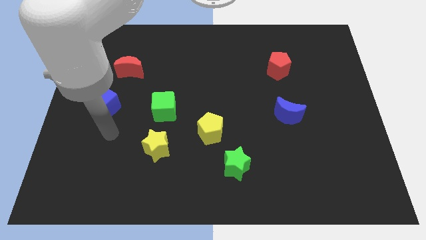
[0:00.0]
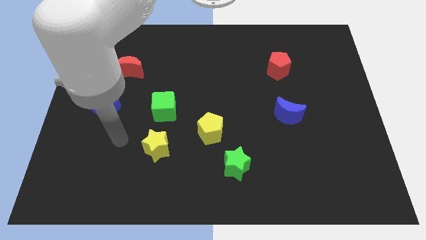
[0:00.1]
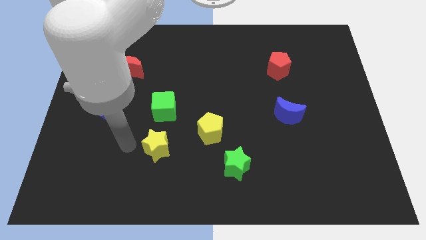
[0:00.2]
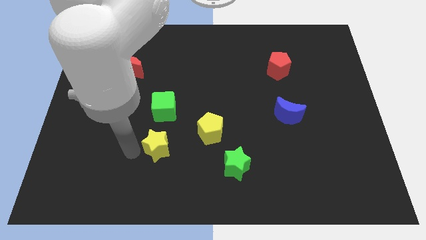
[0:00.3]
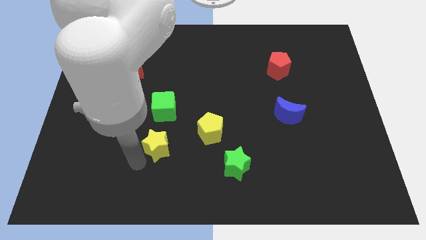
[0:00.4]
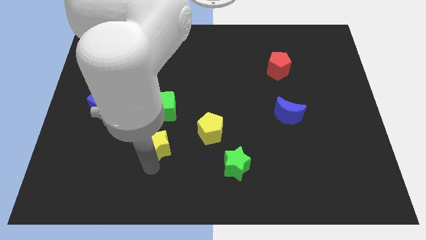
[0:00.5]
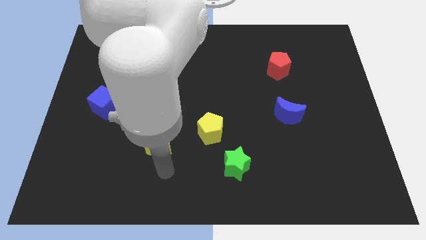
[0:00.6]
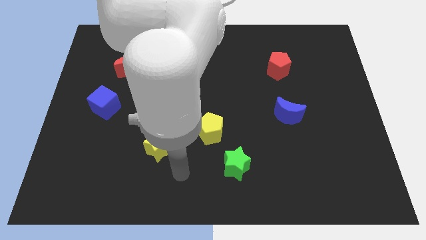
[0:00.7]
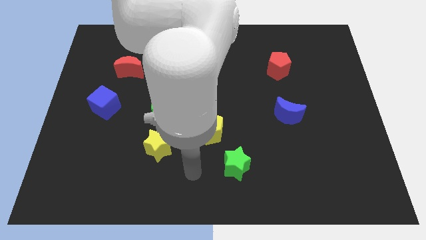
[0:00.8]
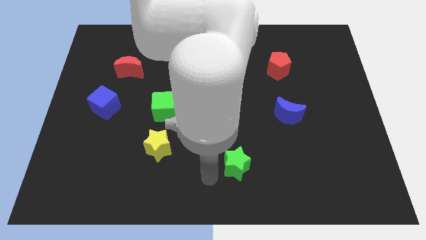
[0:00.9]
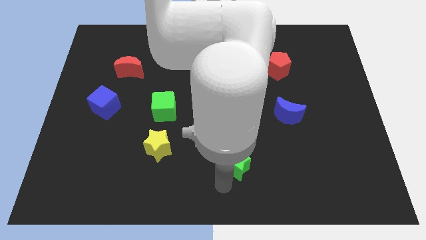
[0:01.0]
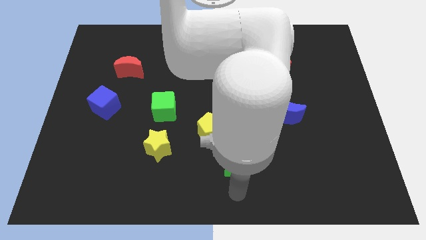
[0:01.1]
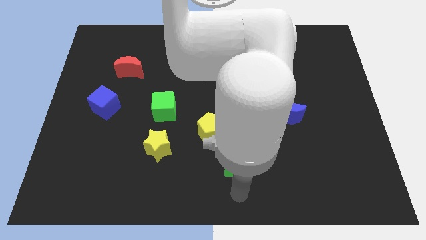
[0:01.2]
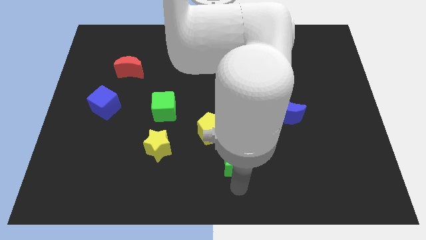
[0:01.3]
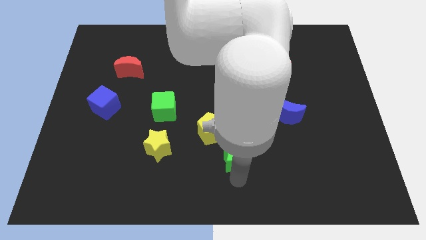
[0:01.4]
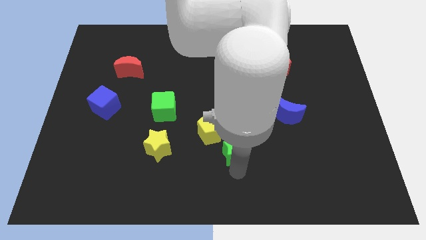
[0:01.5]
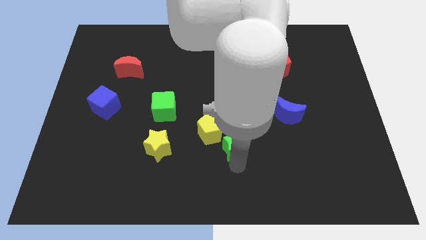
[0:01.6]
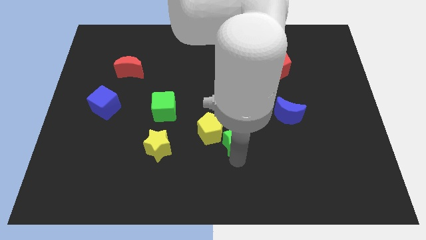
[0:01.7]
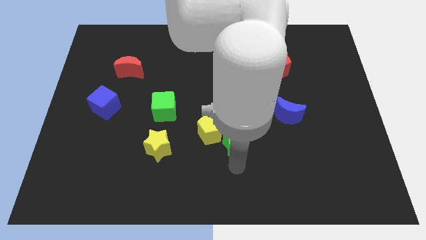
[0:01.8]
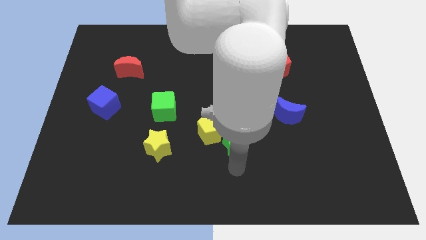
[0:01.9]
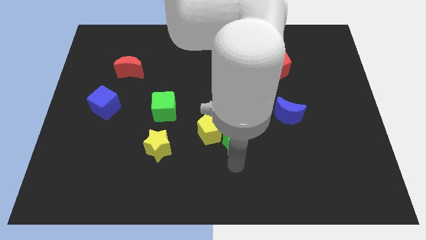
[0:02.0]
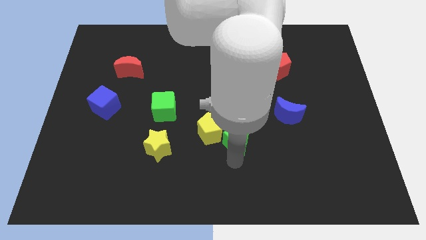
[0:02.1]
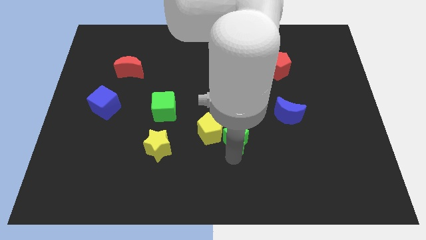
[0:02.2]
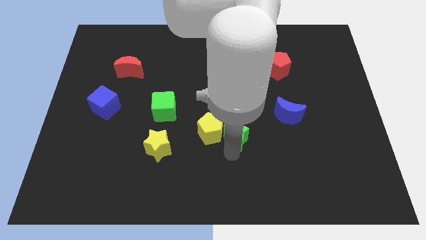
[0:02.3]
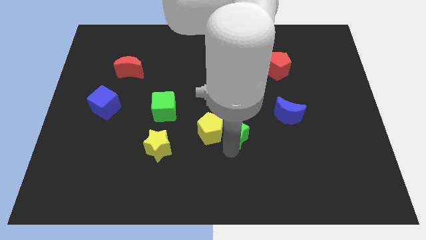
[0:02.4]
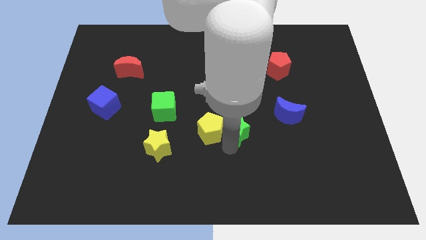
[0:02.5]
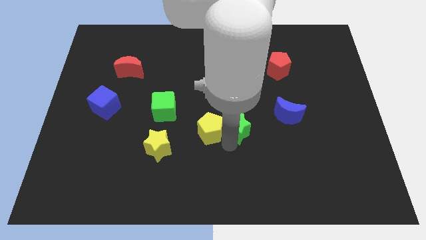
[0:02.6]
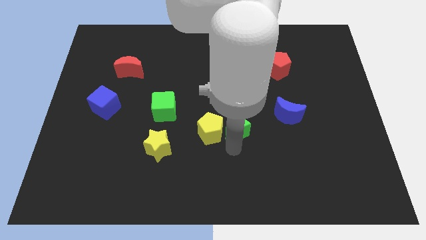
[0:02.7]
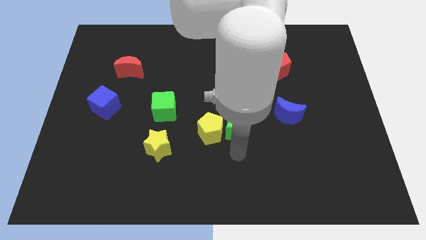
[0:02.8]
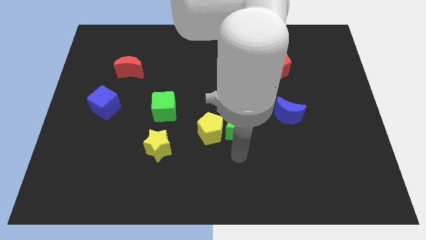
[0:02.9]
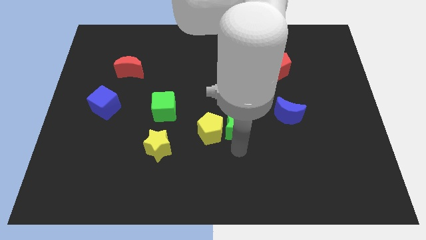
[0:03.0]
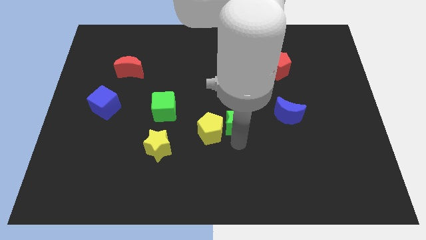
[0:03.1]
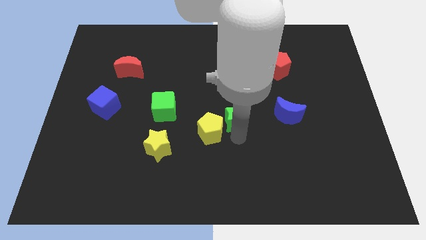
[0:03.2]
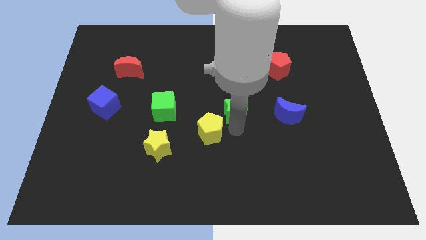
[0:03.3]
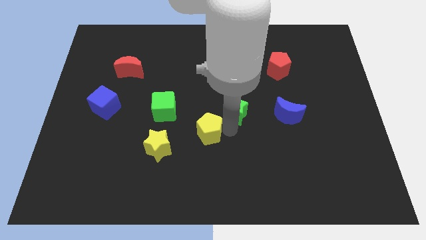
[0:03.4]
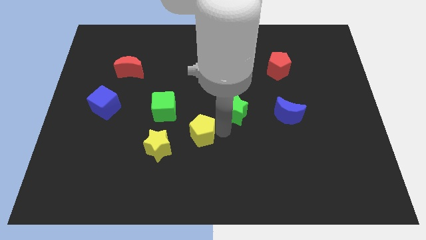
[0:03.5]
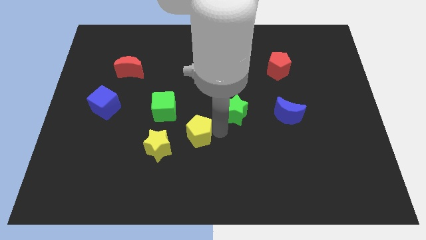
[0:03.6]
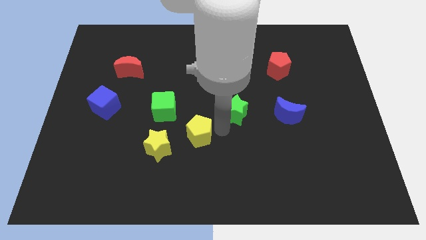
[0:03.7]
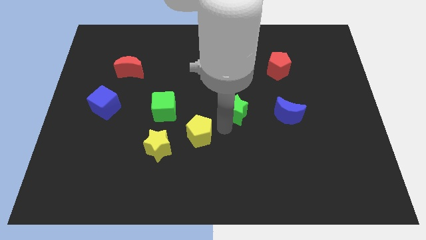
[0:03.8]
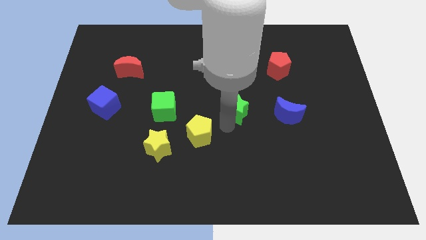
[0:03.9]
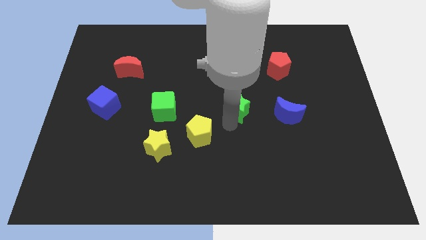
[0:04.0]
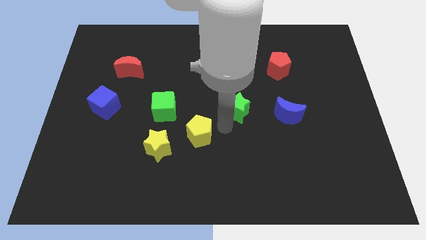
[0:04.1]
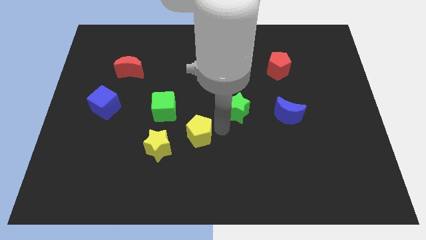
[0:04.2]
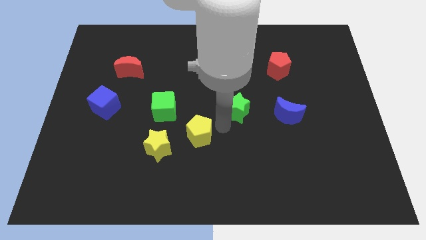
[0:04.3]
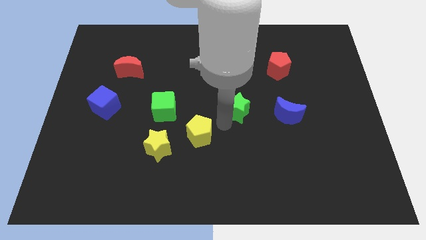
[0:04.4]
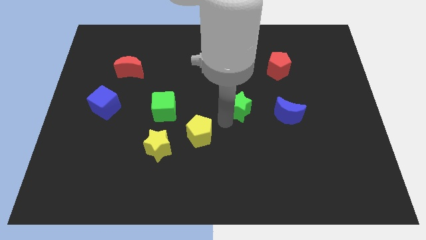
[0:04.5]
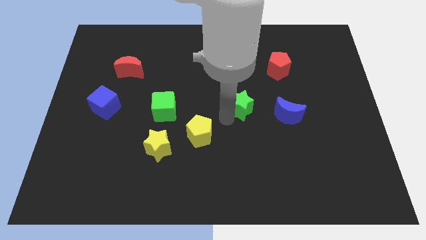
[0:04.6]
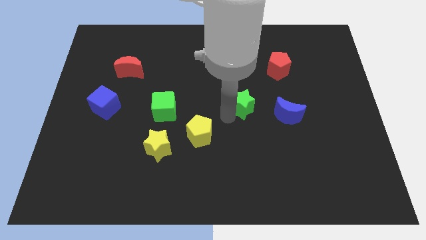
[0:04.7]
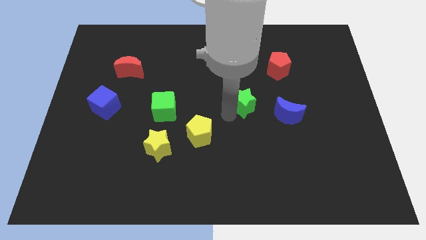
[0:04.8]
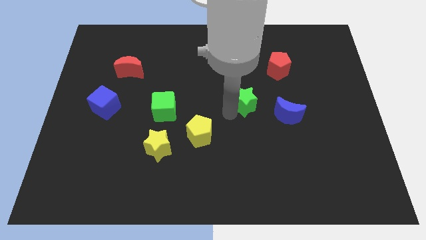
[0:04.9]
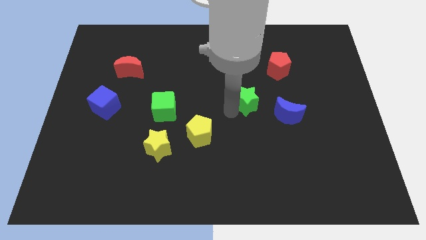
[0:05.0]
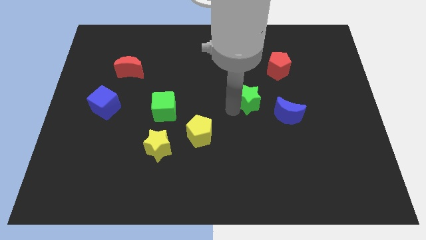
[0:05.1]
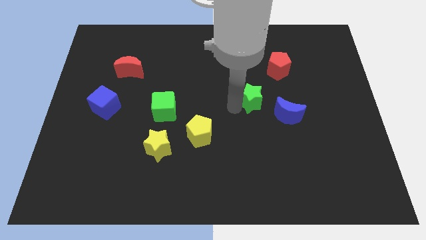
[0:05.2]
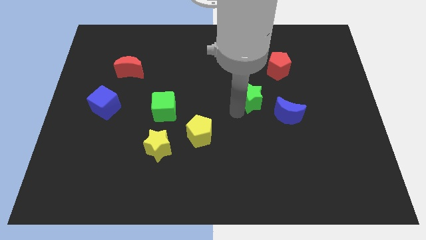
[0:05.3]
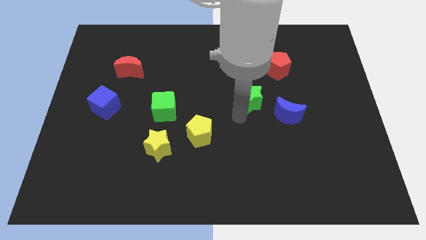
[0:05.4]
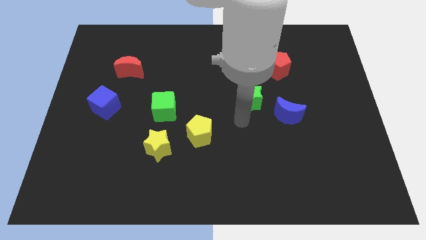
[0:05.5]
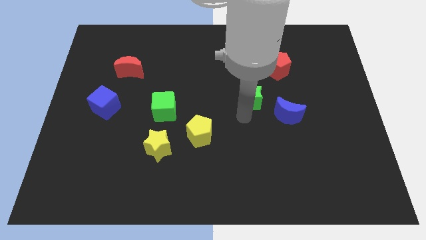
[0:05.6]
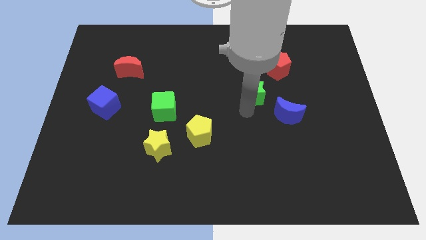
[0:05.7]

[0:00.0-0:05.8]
push the green star to the bottom left side of the red pentagon

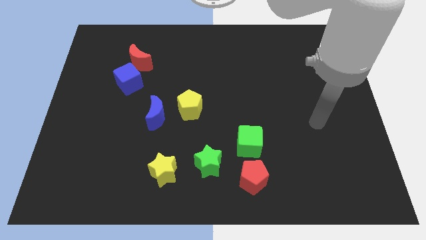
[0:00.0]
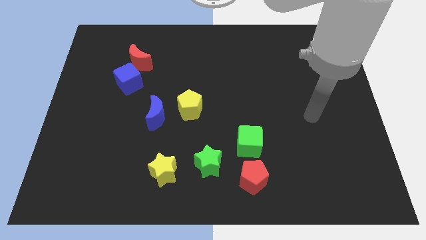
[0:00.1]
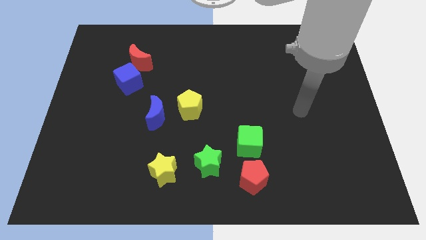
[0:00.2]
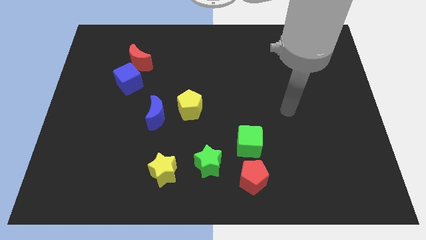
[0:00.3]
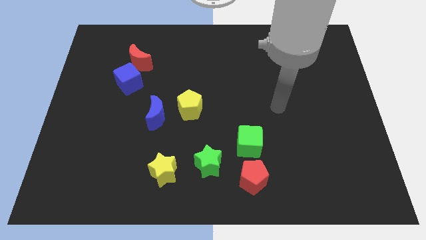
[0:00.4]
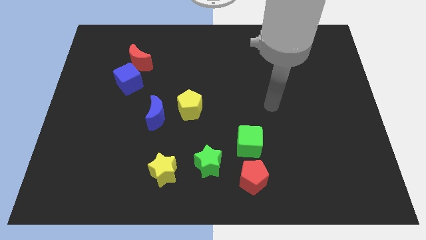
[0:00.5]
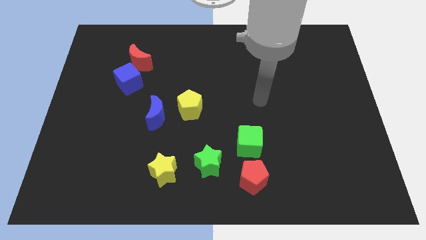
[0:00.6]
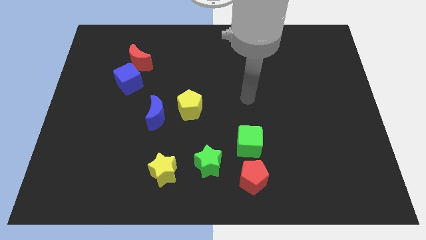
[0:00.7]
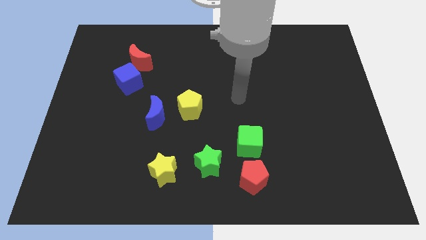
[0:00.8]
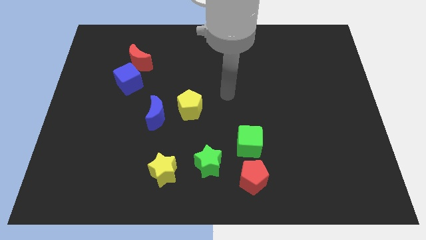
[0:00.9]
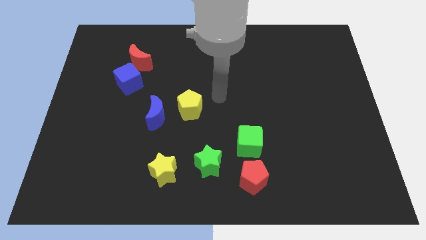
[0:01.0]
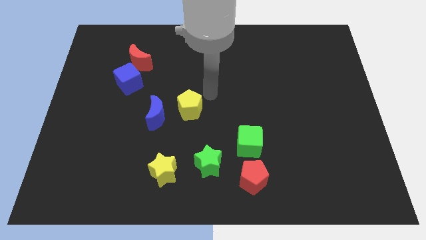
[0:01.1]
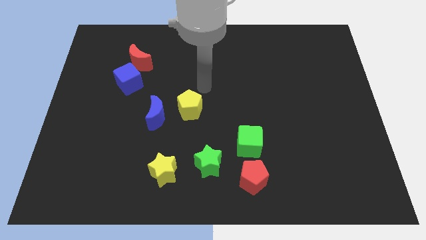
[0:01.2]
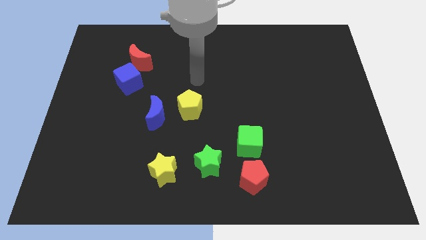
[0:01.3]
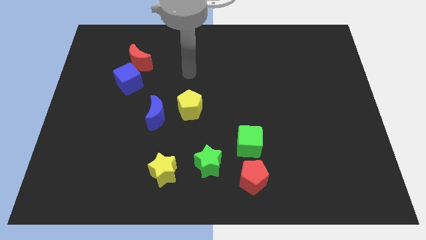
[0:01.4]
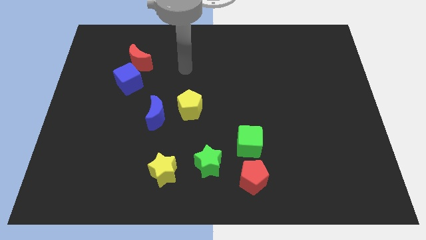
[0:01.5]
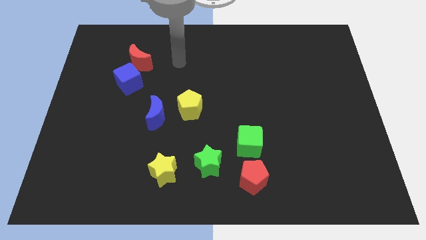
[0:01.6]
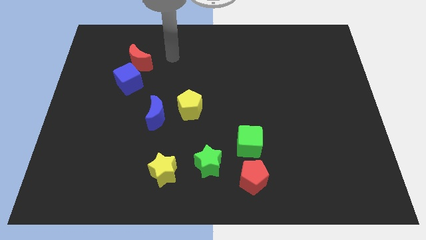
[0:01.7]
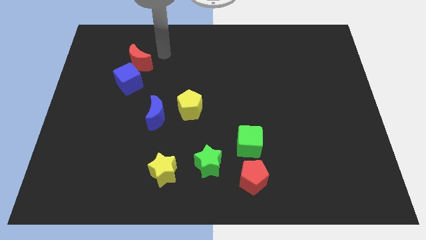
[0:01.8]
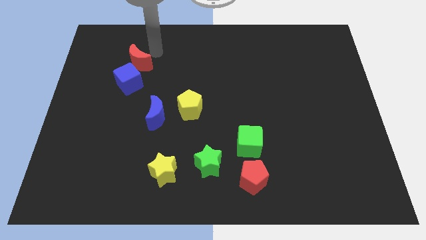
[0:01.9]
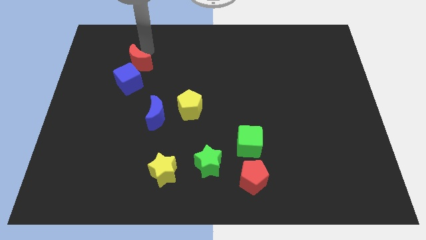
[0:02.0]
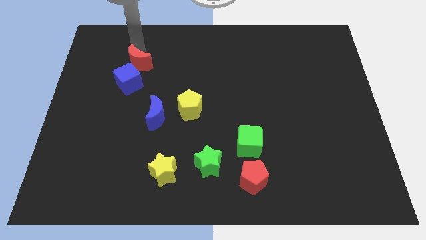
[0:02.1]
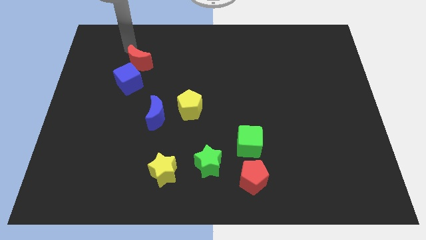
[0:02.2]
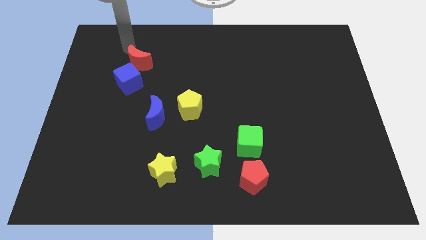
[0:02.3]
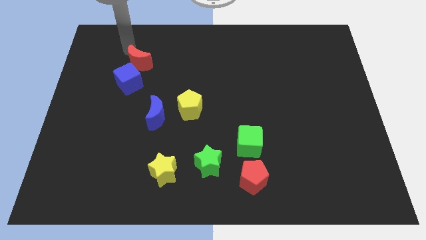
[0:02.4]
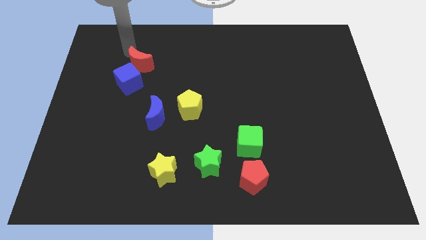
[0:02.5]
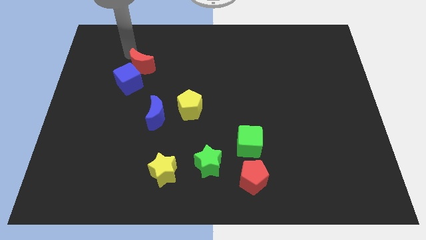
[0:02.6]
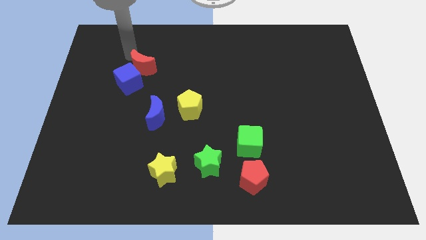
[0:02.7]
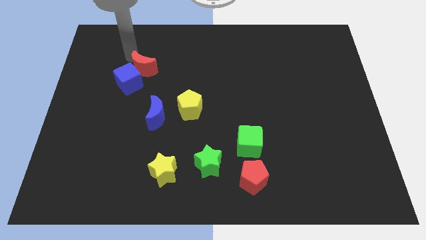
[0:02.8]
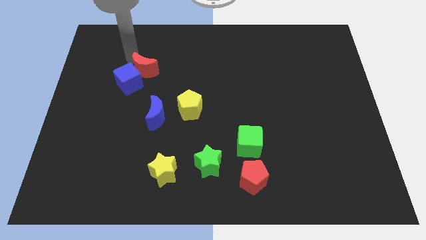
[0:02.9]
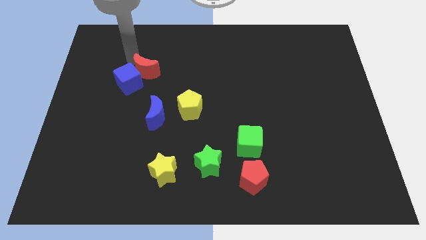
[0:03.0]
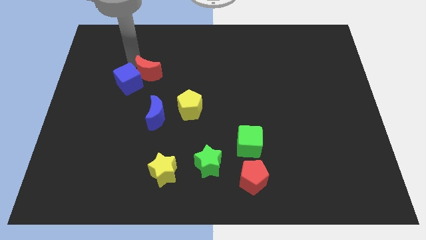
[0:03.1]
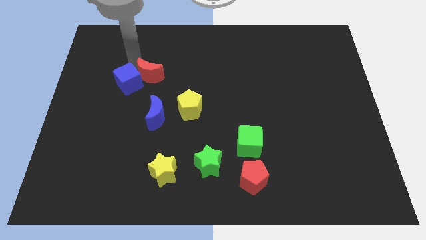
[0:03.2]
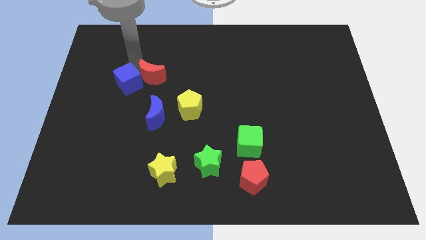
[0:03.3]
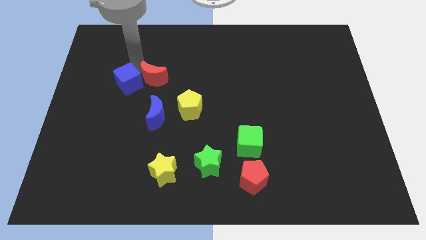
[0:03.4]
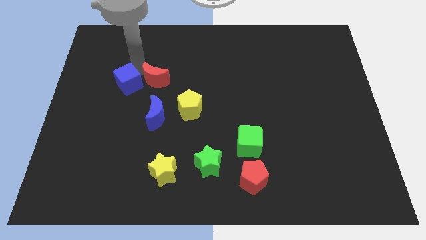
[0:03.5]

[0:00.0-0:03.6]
slide the red moon diagonally up and to the left of the yellow pentagon
